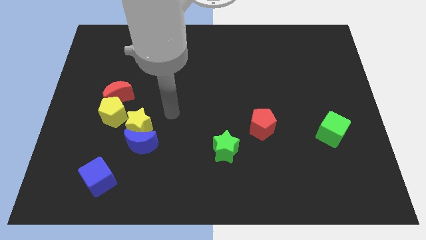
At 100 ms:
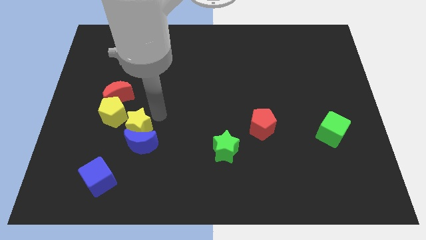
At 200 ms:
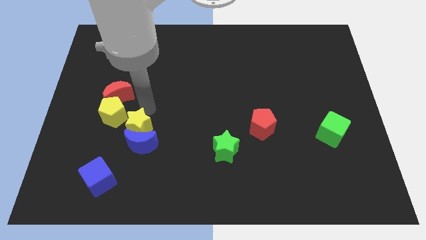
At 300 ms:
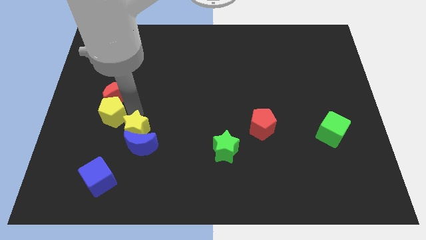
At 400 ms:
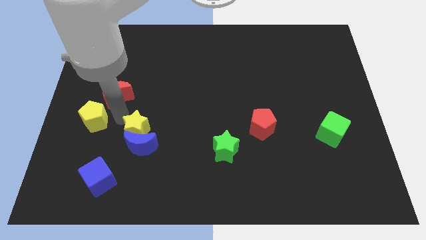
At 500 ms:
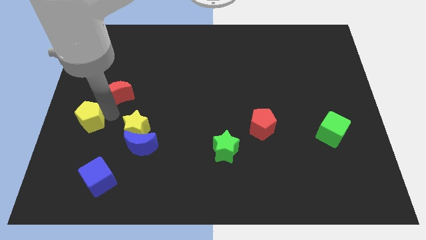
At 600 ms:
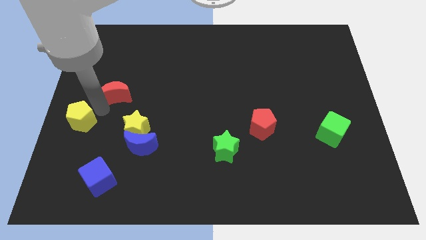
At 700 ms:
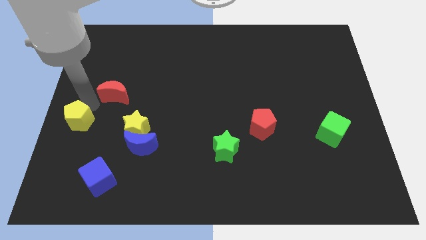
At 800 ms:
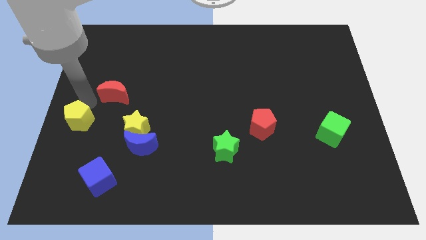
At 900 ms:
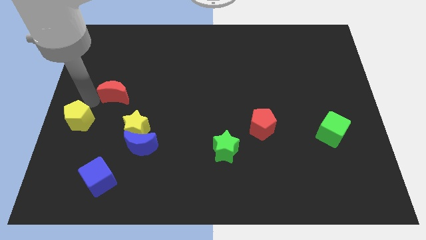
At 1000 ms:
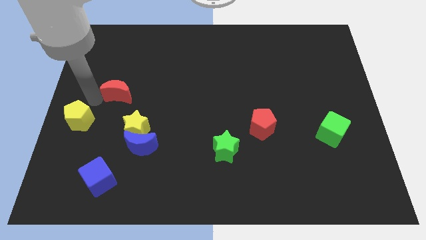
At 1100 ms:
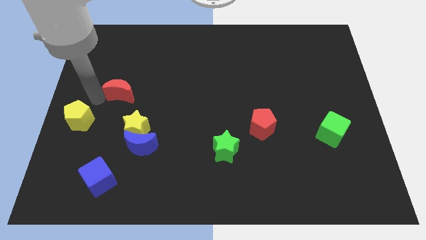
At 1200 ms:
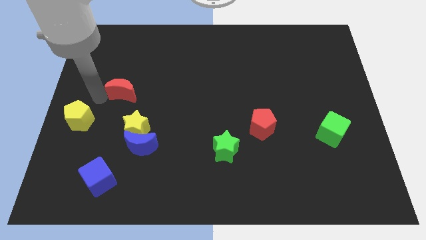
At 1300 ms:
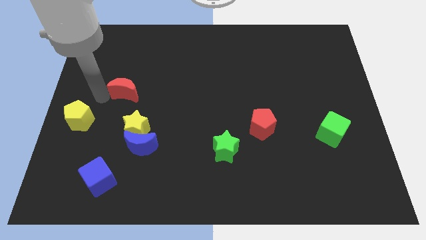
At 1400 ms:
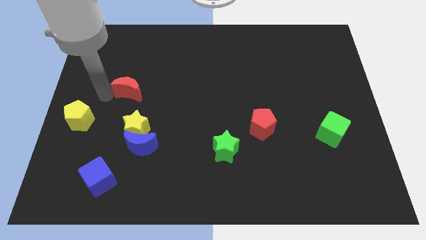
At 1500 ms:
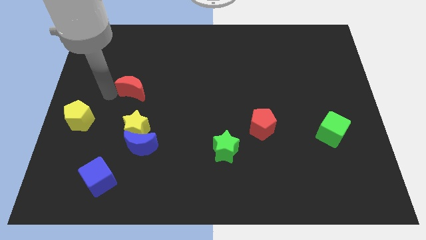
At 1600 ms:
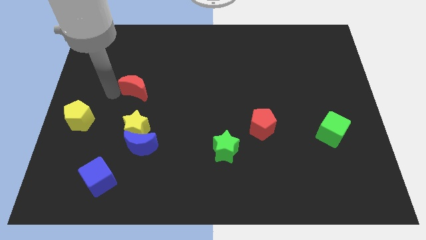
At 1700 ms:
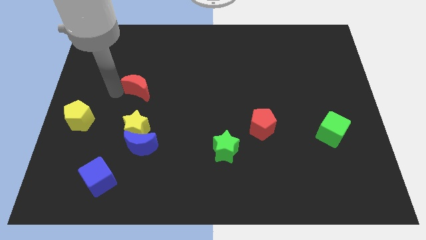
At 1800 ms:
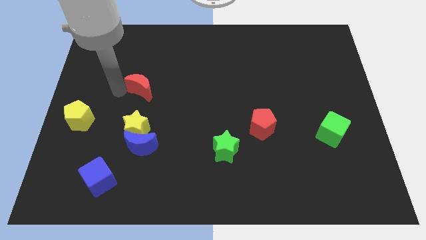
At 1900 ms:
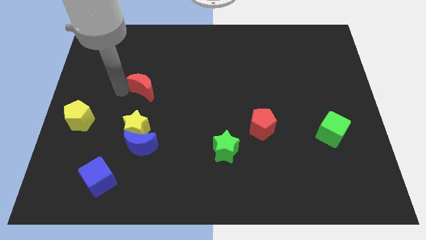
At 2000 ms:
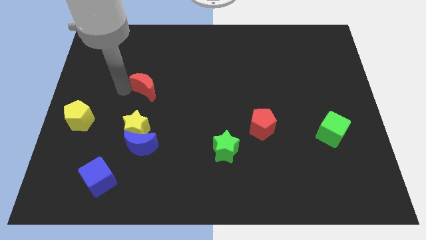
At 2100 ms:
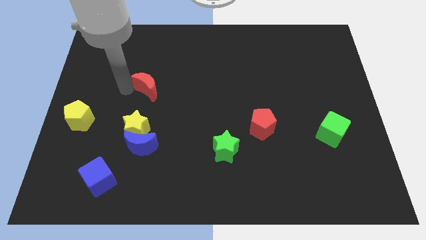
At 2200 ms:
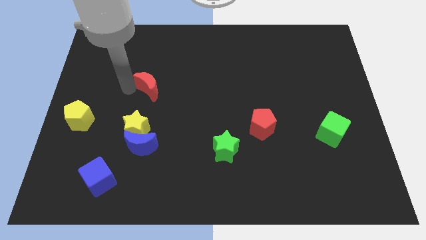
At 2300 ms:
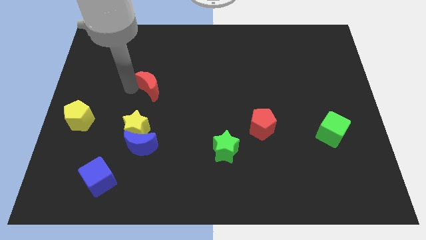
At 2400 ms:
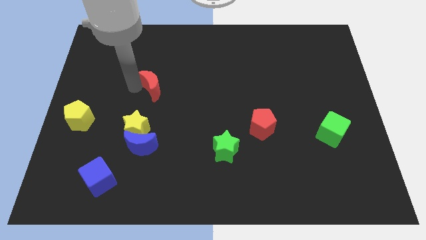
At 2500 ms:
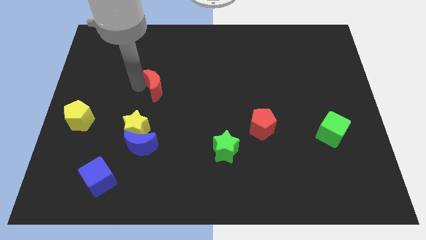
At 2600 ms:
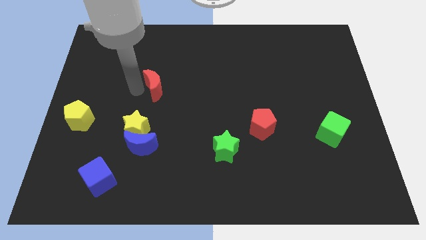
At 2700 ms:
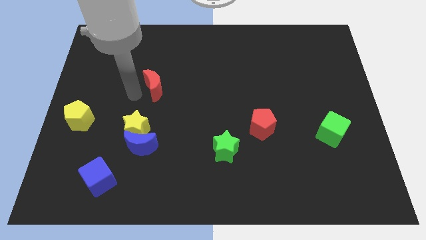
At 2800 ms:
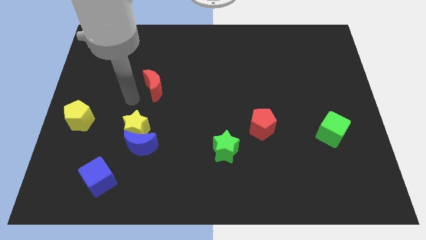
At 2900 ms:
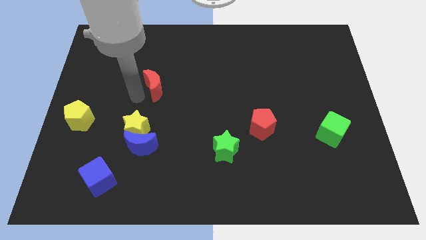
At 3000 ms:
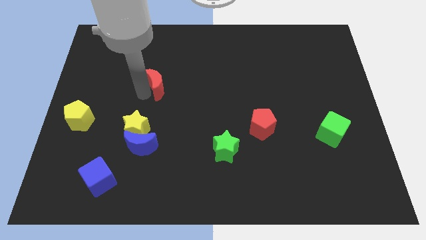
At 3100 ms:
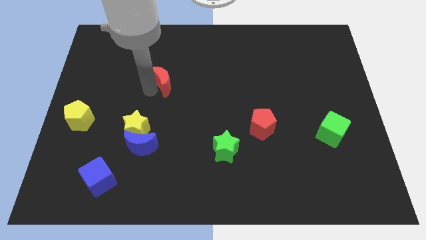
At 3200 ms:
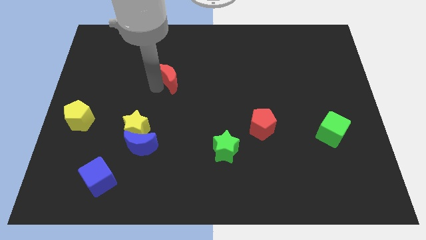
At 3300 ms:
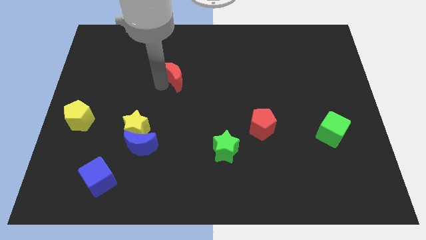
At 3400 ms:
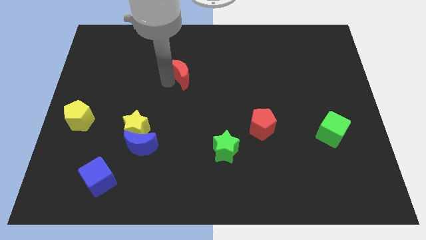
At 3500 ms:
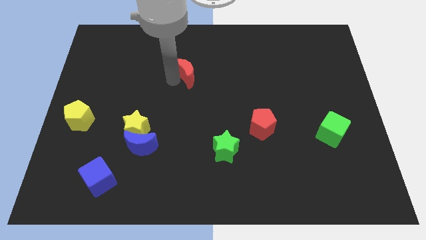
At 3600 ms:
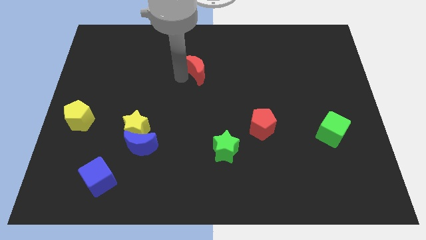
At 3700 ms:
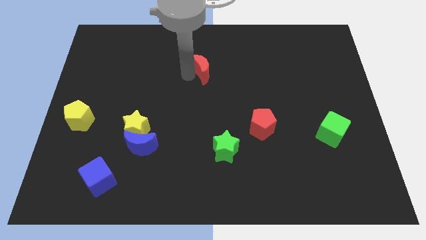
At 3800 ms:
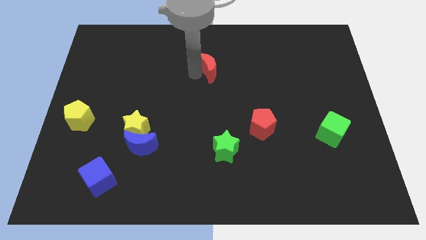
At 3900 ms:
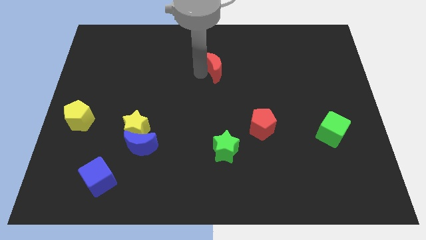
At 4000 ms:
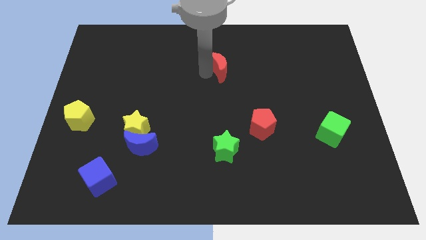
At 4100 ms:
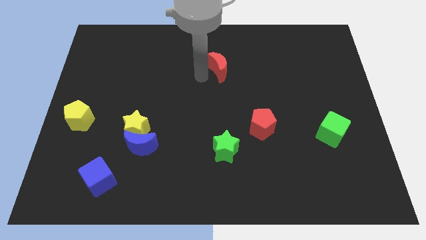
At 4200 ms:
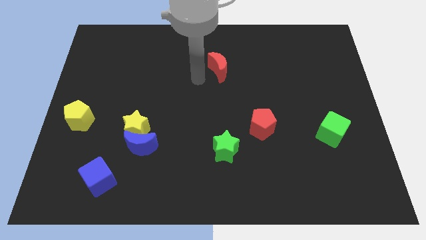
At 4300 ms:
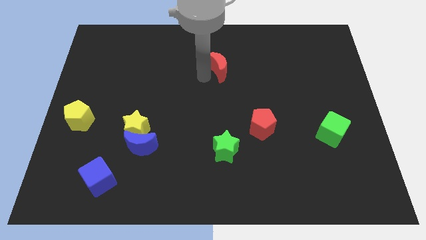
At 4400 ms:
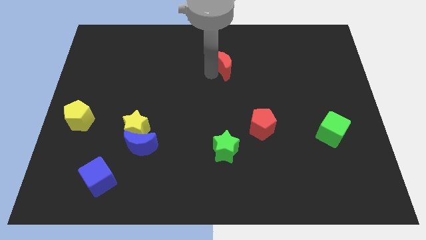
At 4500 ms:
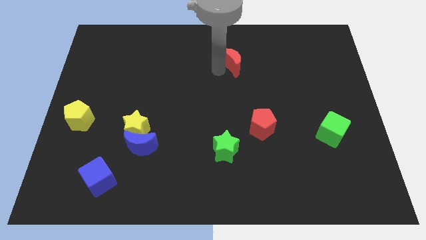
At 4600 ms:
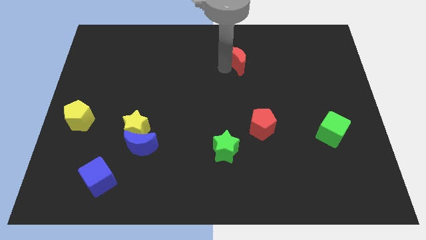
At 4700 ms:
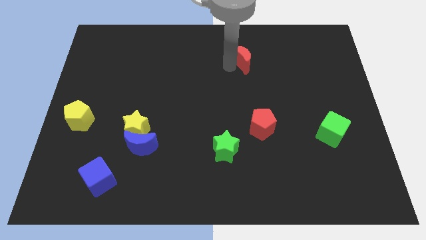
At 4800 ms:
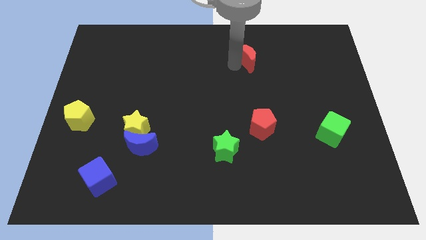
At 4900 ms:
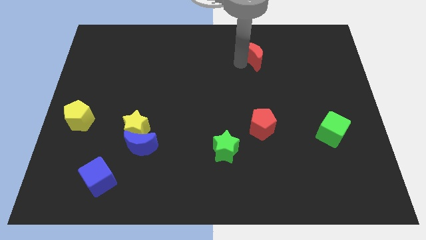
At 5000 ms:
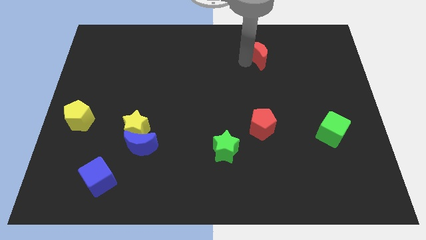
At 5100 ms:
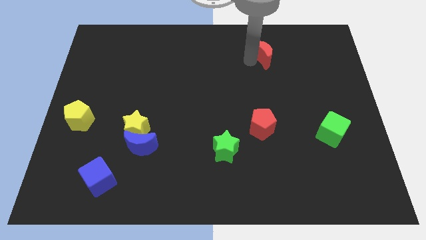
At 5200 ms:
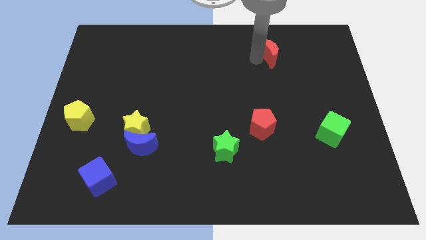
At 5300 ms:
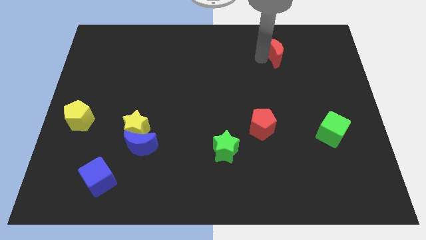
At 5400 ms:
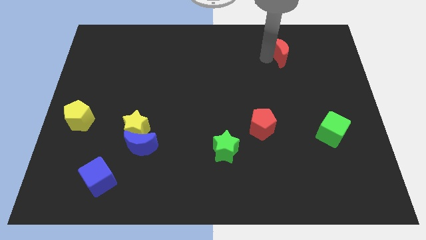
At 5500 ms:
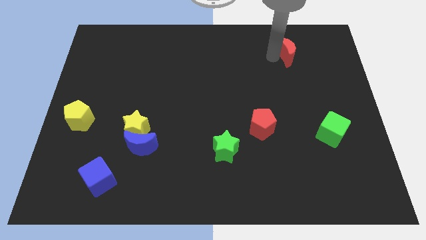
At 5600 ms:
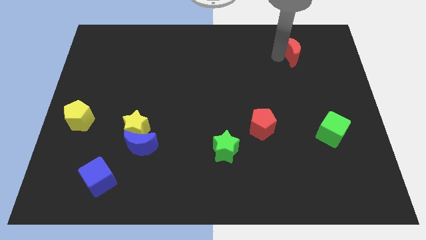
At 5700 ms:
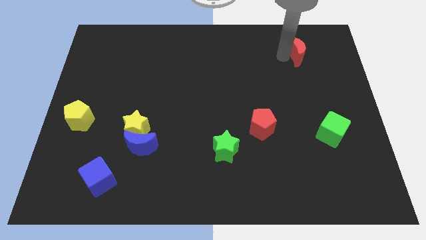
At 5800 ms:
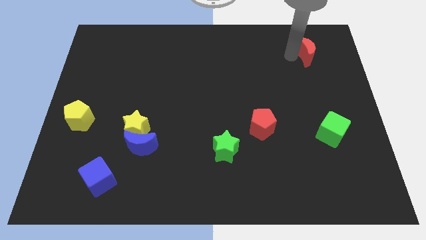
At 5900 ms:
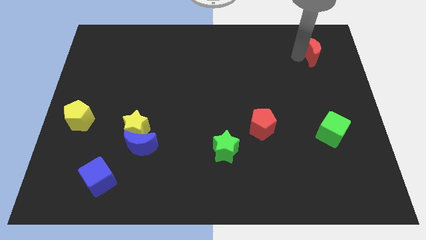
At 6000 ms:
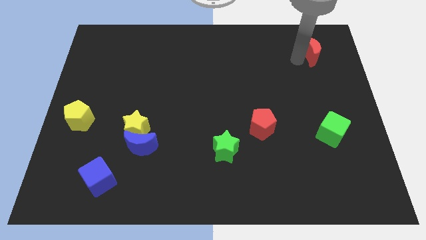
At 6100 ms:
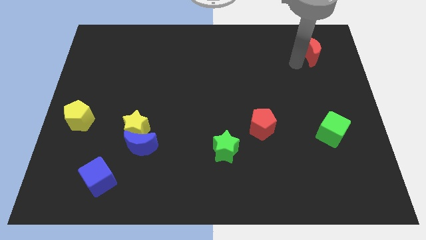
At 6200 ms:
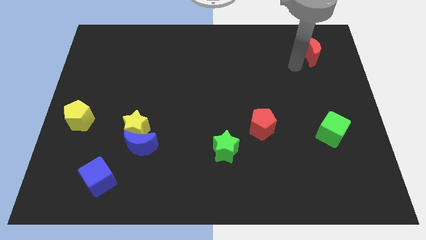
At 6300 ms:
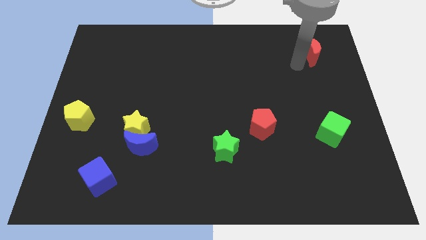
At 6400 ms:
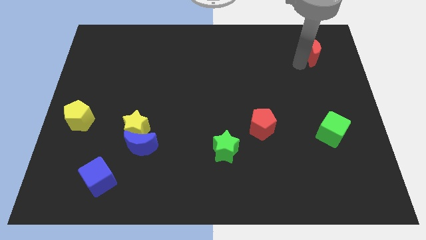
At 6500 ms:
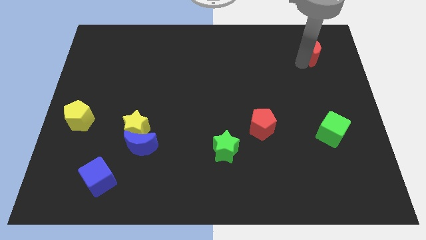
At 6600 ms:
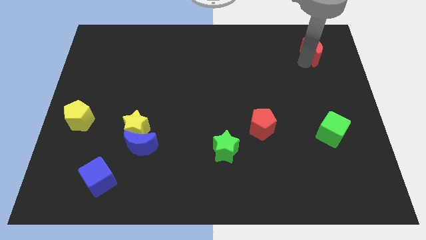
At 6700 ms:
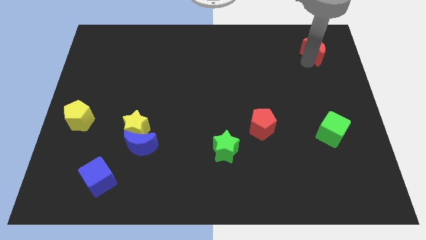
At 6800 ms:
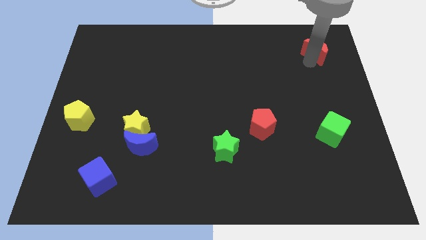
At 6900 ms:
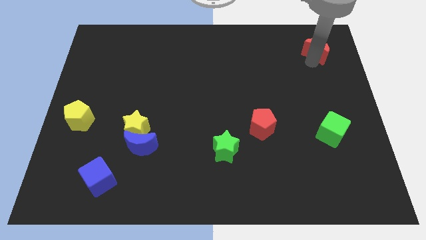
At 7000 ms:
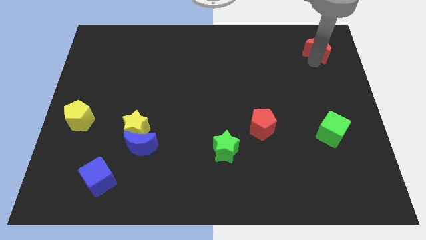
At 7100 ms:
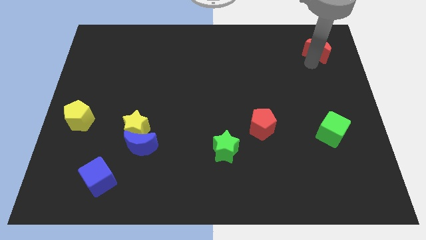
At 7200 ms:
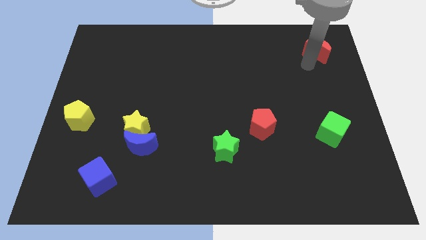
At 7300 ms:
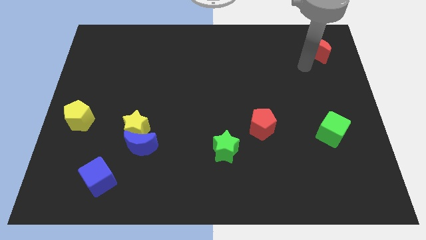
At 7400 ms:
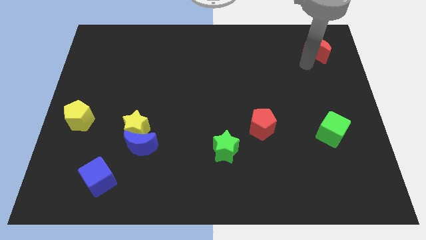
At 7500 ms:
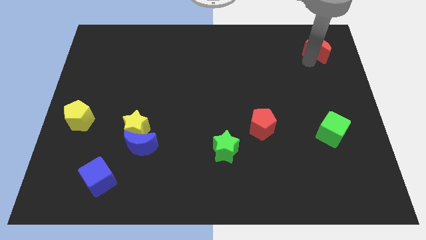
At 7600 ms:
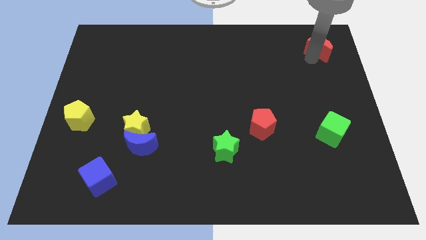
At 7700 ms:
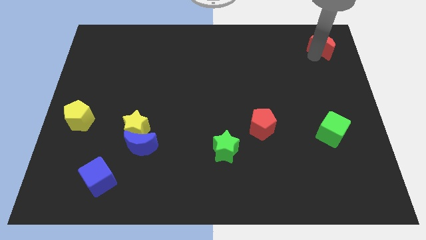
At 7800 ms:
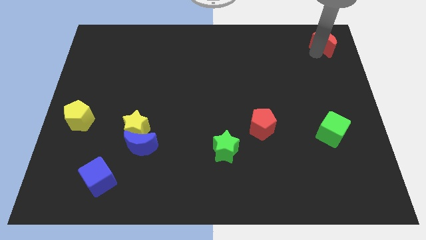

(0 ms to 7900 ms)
put the red moon to the top right corner
